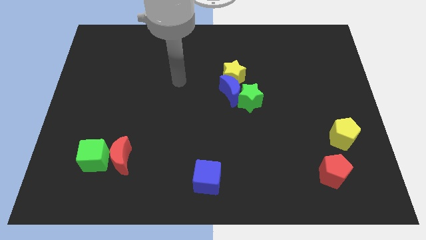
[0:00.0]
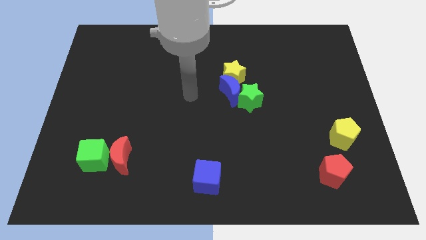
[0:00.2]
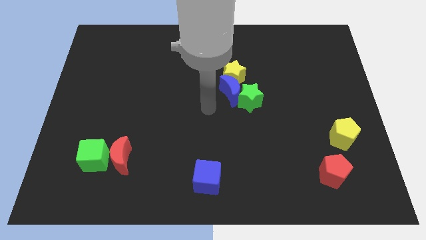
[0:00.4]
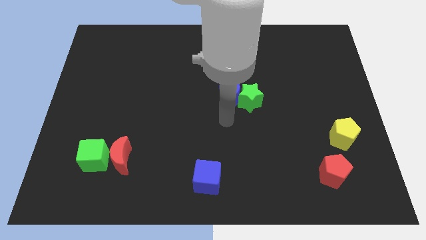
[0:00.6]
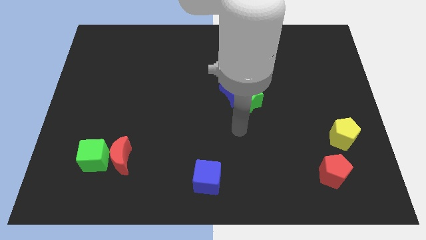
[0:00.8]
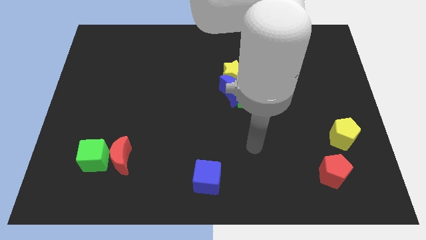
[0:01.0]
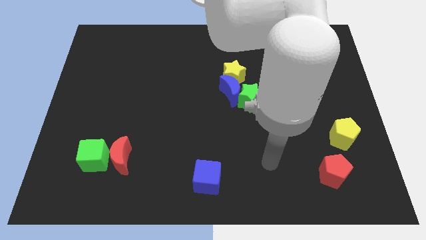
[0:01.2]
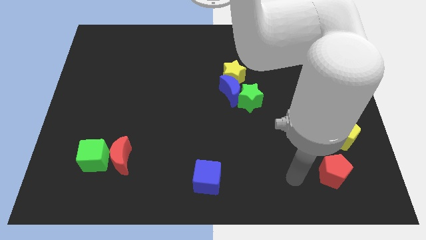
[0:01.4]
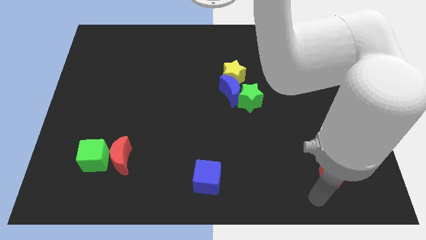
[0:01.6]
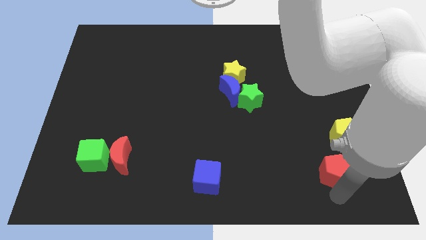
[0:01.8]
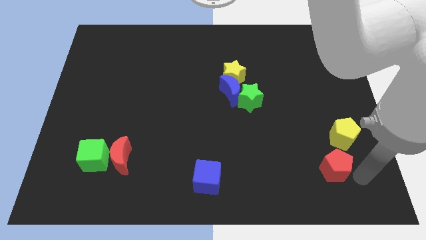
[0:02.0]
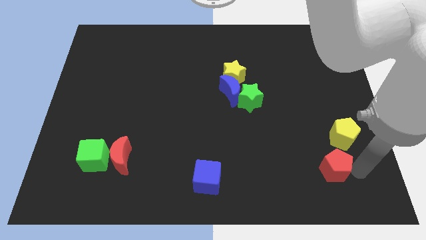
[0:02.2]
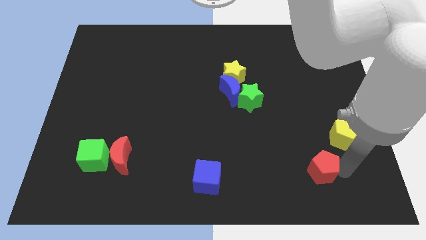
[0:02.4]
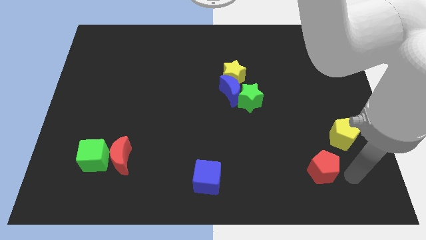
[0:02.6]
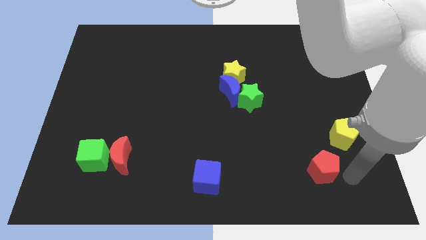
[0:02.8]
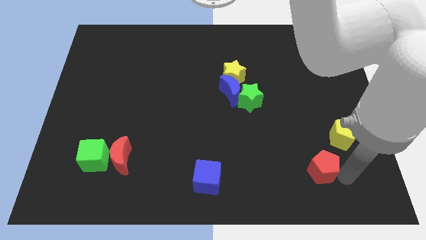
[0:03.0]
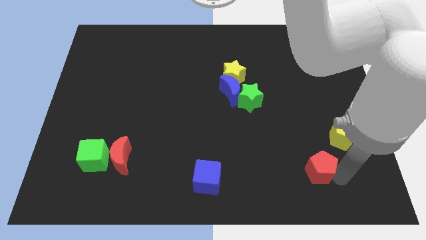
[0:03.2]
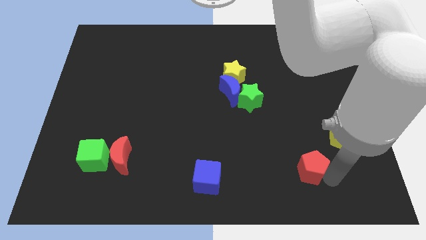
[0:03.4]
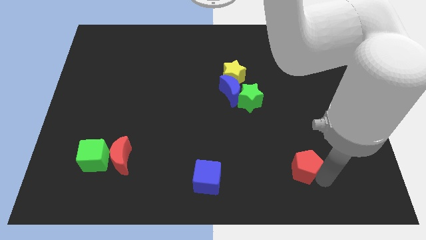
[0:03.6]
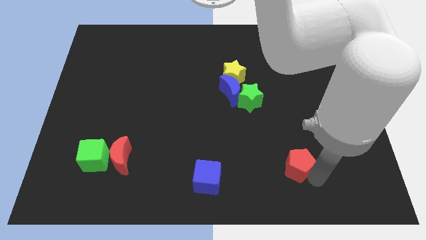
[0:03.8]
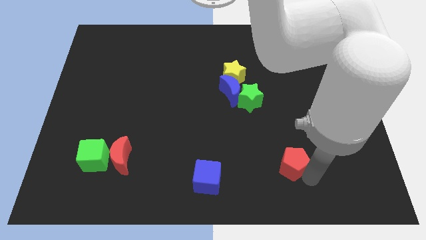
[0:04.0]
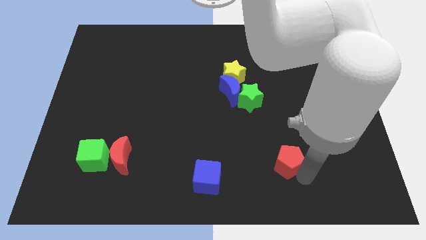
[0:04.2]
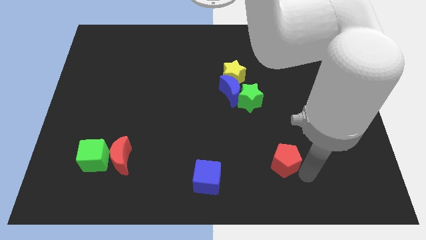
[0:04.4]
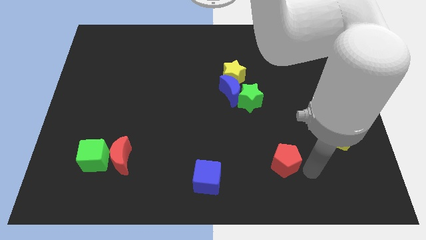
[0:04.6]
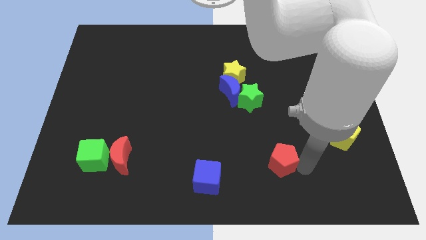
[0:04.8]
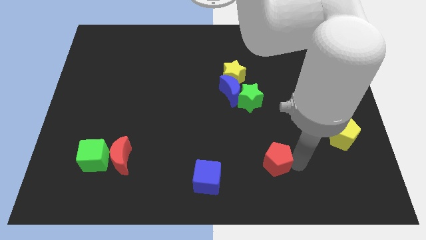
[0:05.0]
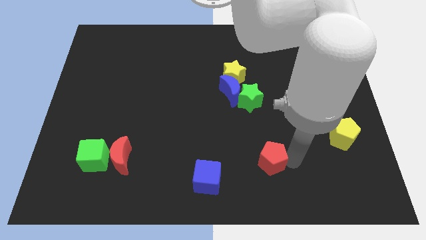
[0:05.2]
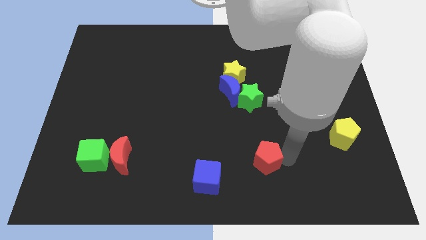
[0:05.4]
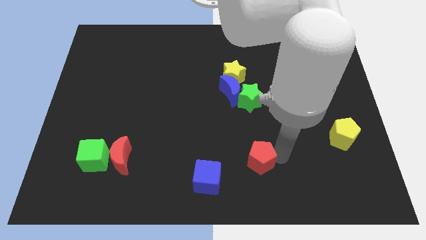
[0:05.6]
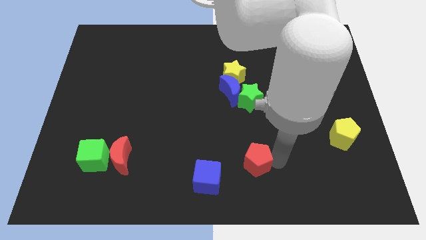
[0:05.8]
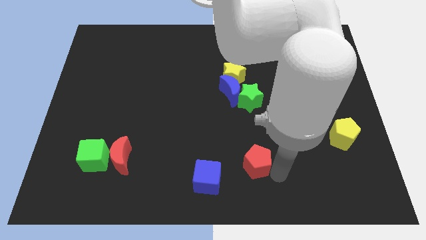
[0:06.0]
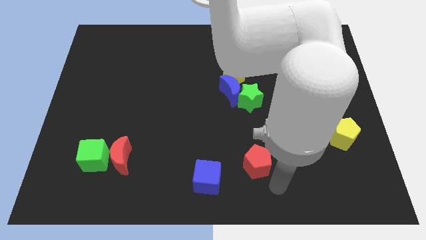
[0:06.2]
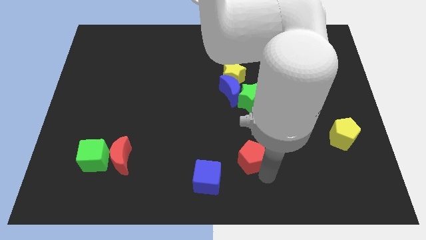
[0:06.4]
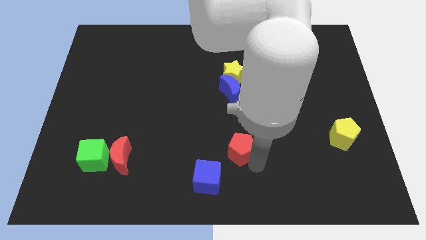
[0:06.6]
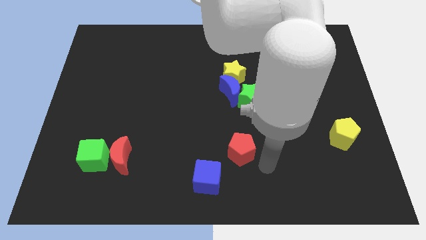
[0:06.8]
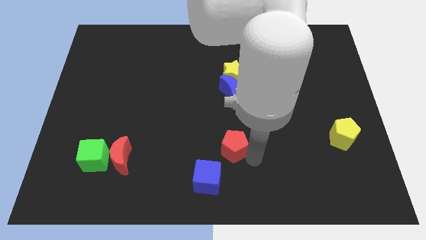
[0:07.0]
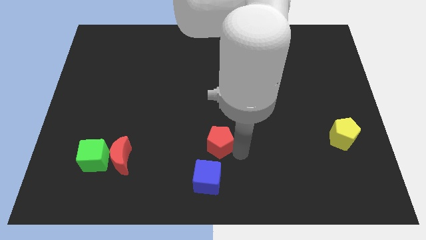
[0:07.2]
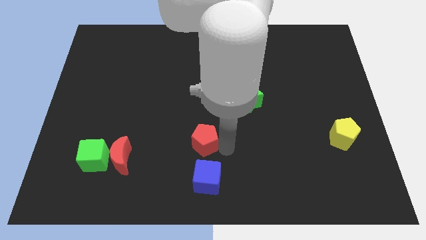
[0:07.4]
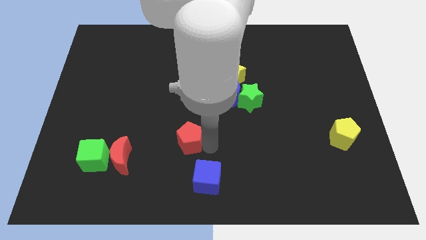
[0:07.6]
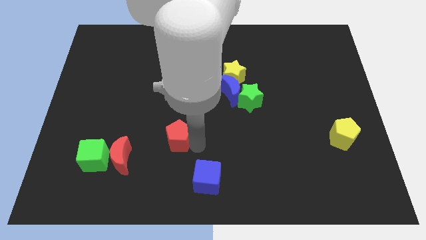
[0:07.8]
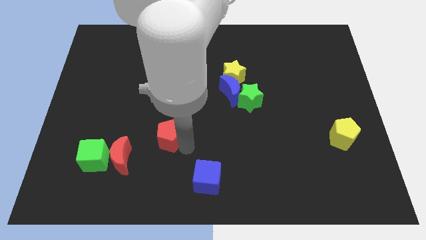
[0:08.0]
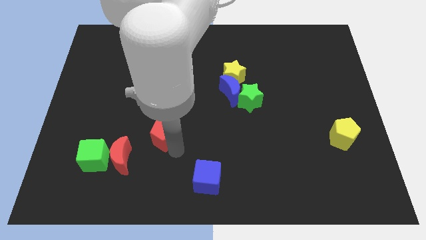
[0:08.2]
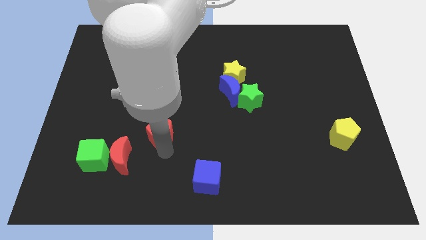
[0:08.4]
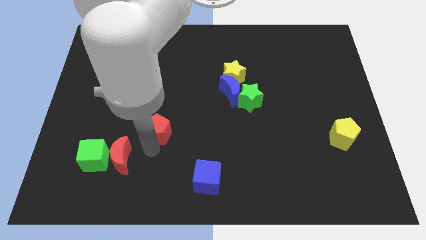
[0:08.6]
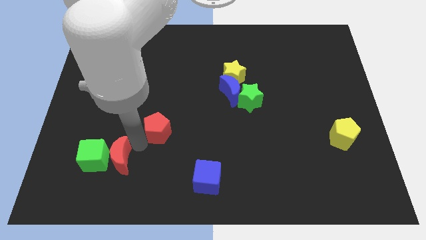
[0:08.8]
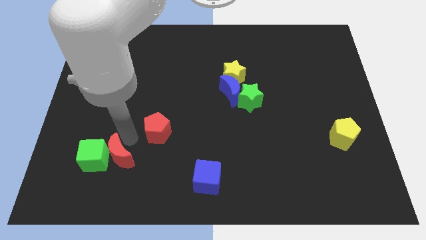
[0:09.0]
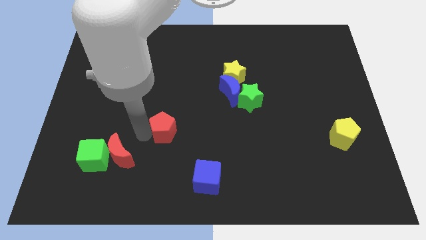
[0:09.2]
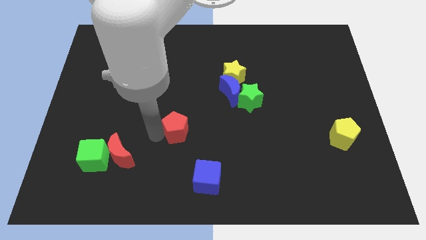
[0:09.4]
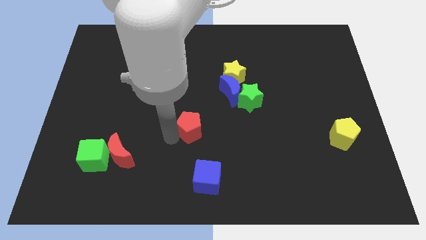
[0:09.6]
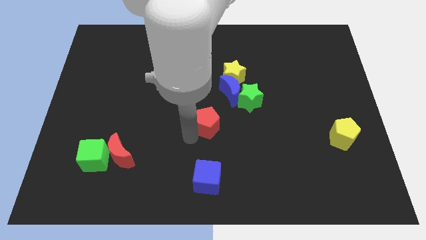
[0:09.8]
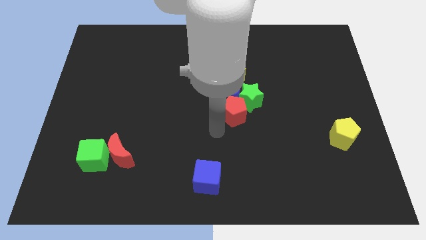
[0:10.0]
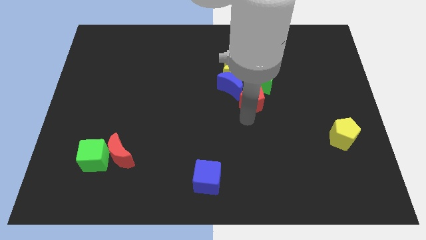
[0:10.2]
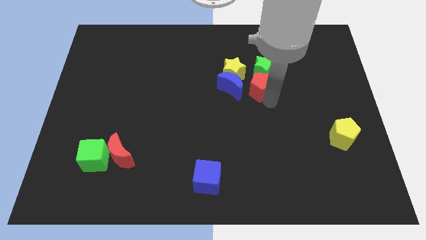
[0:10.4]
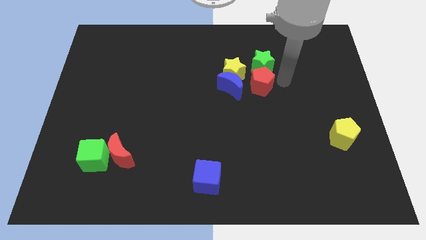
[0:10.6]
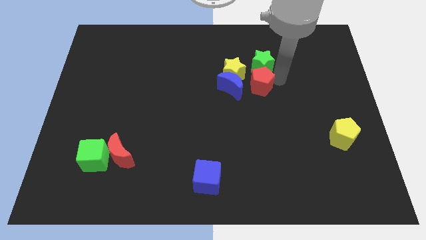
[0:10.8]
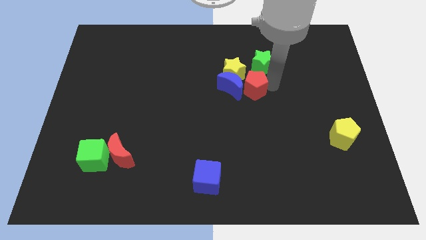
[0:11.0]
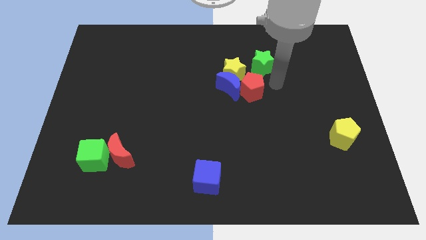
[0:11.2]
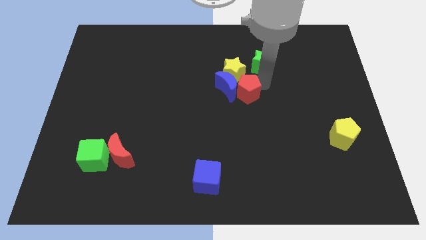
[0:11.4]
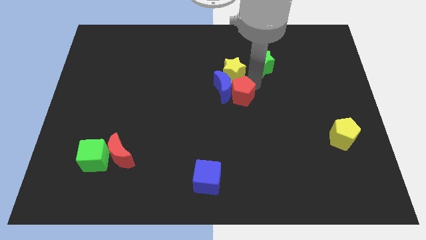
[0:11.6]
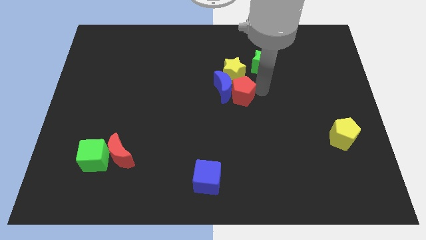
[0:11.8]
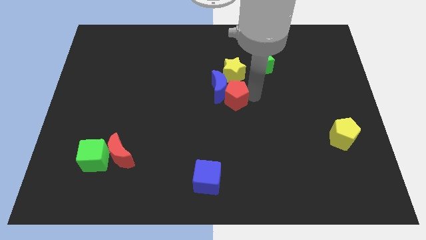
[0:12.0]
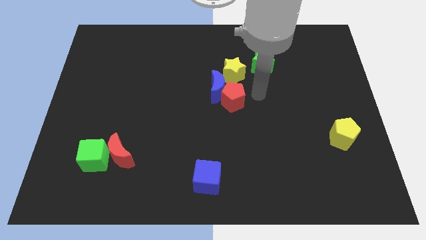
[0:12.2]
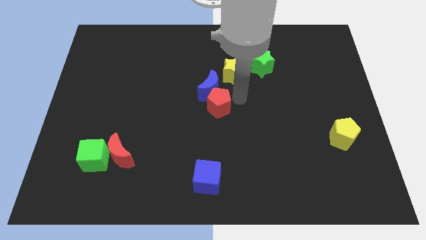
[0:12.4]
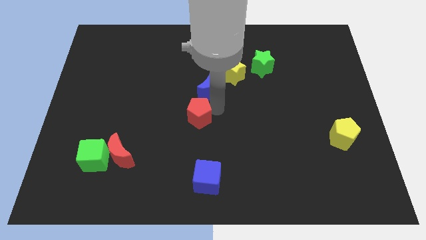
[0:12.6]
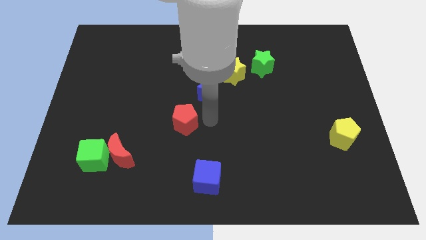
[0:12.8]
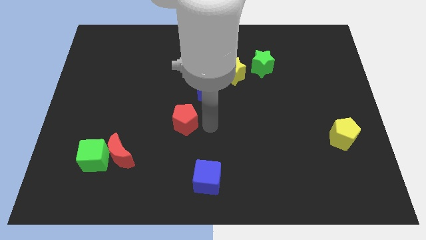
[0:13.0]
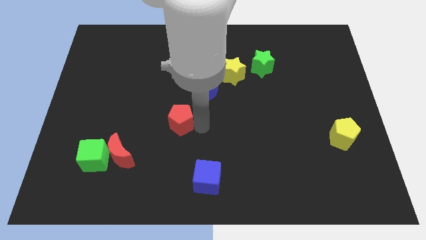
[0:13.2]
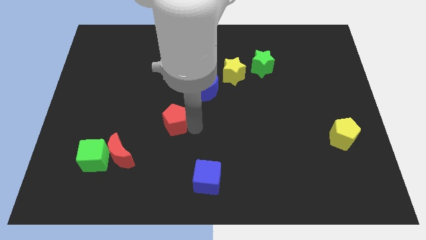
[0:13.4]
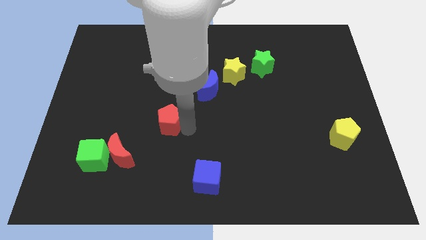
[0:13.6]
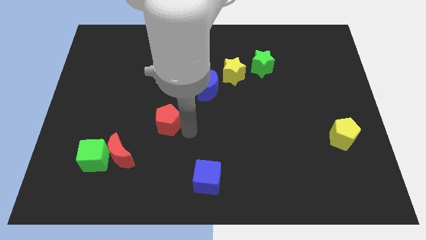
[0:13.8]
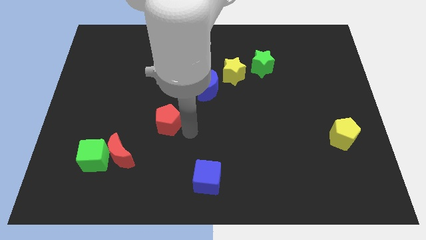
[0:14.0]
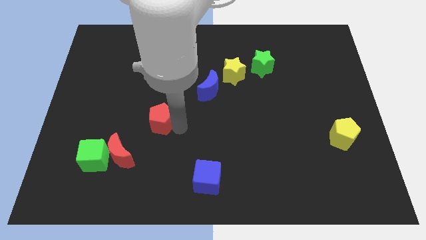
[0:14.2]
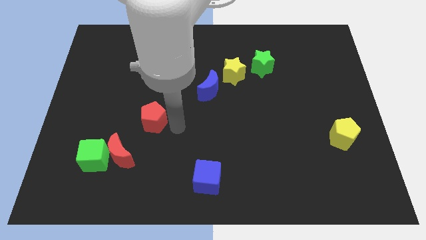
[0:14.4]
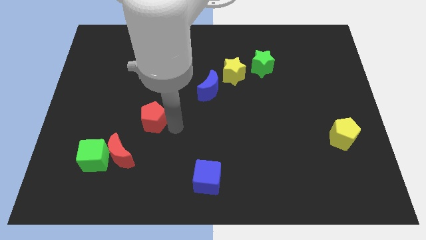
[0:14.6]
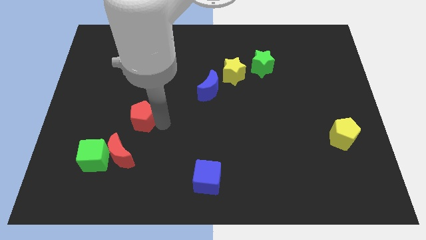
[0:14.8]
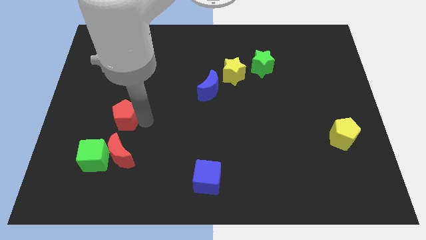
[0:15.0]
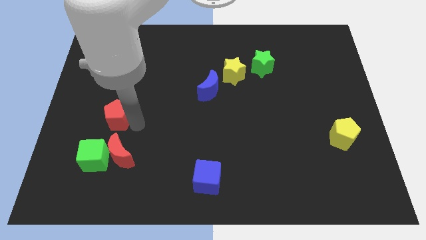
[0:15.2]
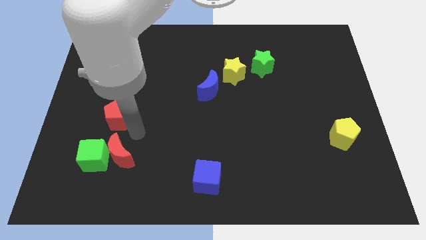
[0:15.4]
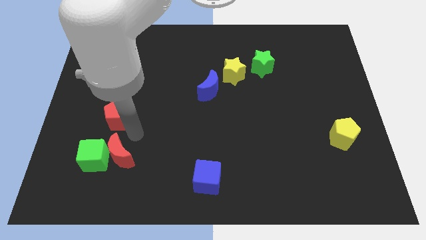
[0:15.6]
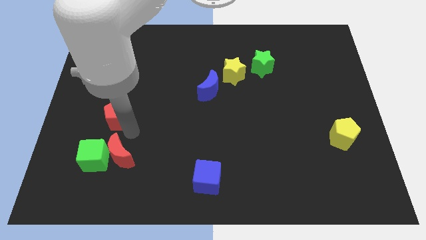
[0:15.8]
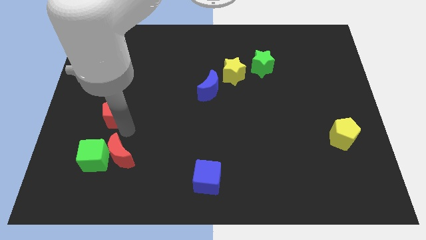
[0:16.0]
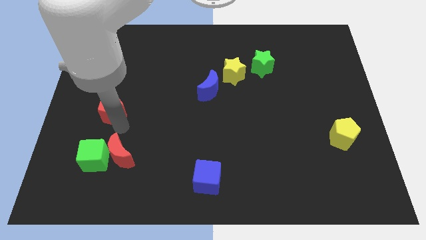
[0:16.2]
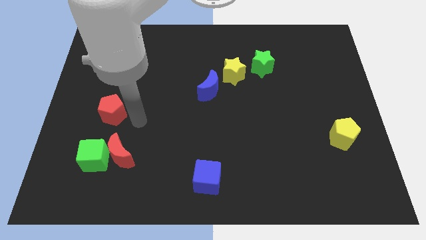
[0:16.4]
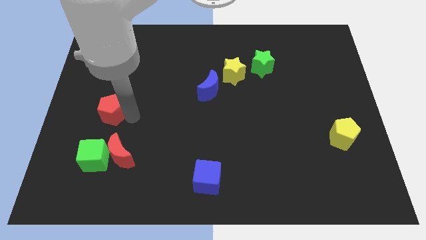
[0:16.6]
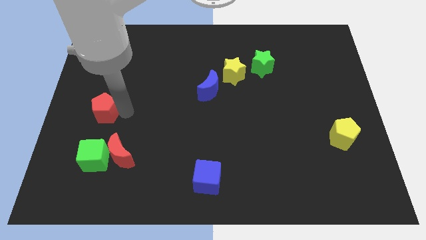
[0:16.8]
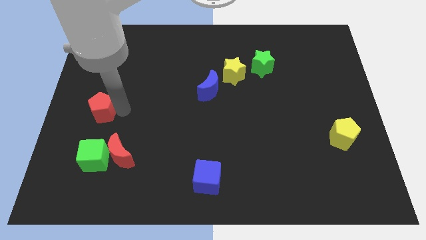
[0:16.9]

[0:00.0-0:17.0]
move the red pentagon to the left side
